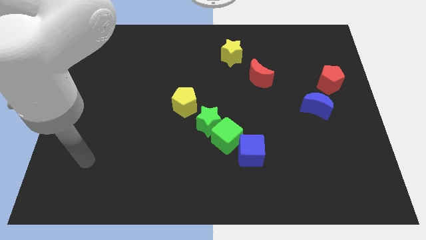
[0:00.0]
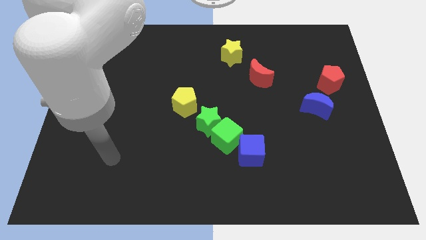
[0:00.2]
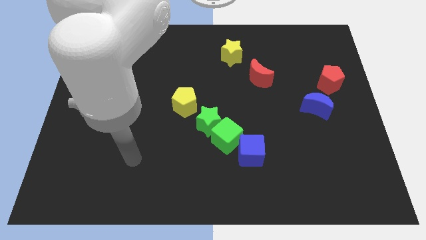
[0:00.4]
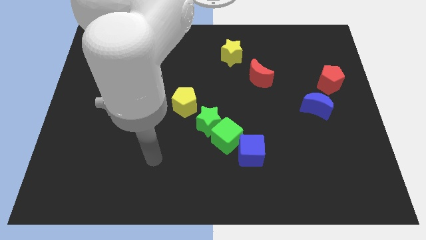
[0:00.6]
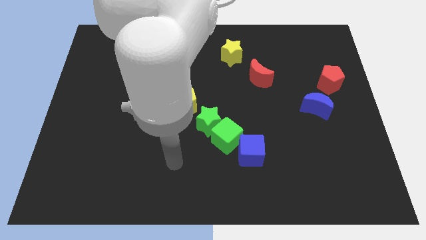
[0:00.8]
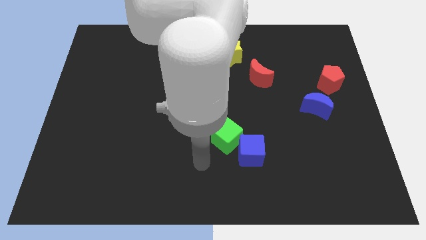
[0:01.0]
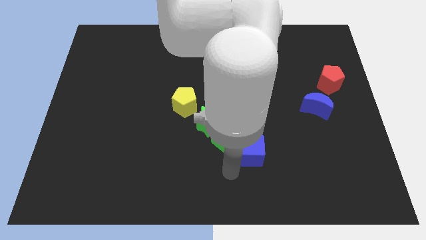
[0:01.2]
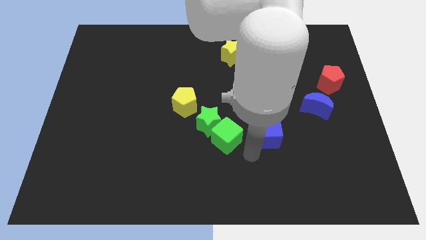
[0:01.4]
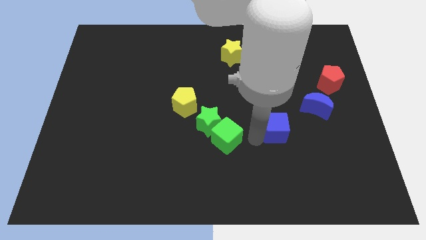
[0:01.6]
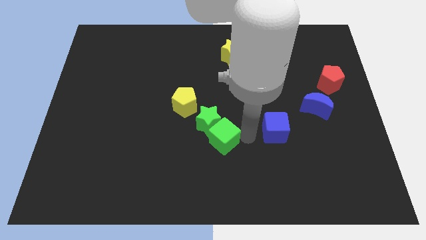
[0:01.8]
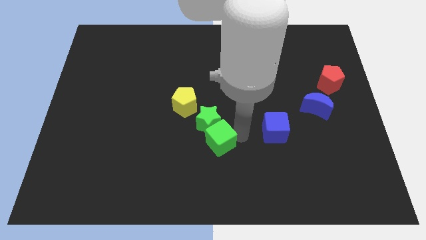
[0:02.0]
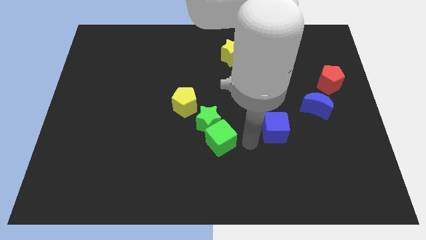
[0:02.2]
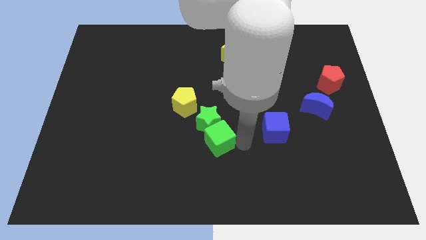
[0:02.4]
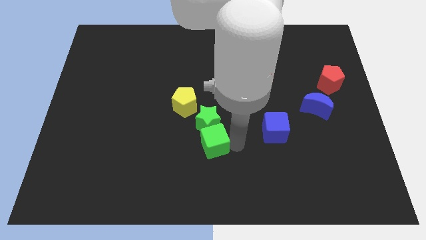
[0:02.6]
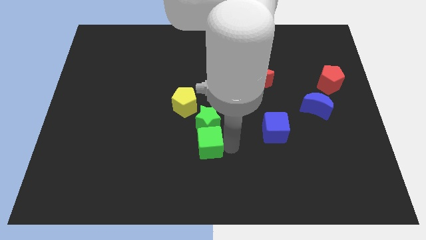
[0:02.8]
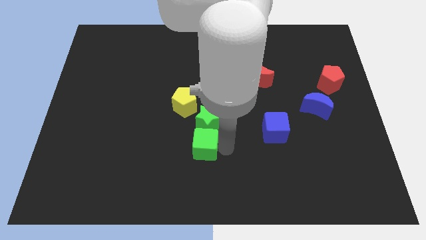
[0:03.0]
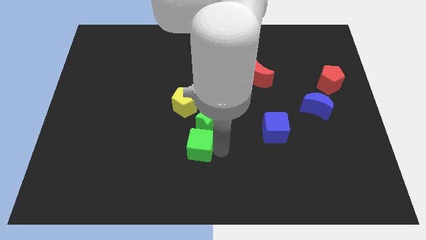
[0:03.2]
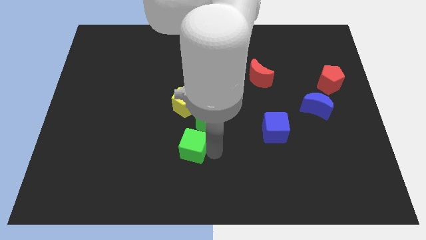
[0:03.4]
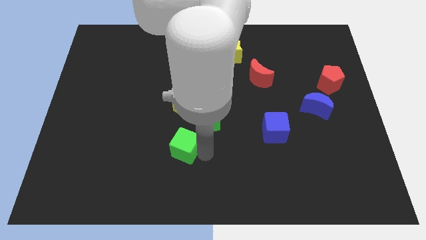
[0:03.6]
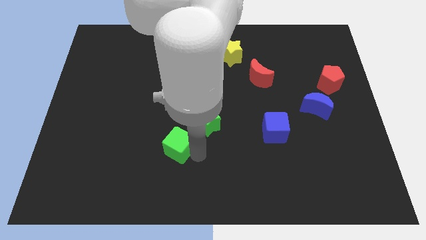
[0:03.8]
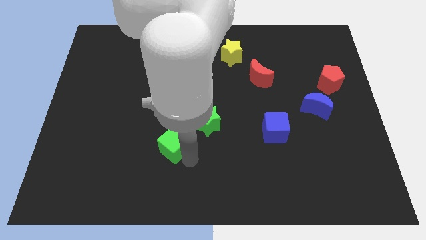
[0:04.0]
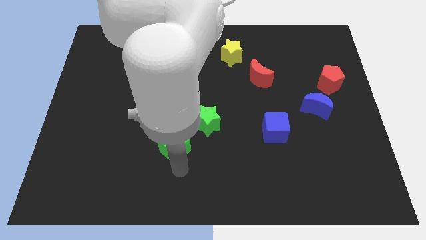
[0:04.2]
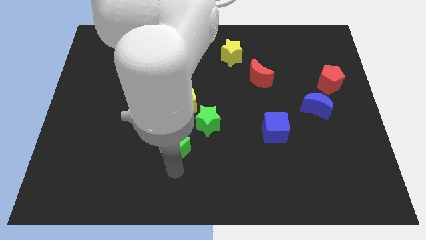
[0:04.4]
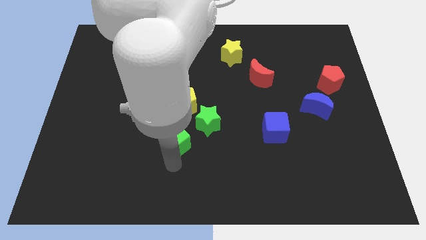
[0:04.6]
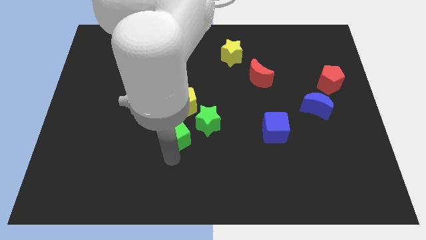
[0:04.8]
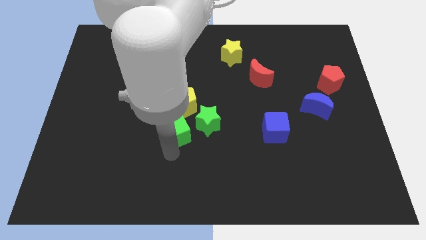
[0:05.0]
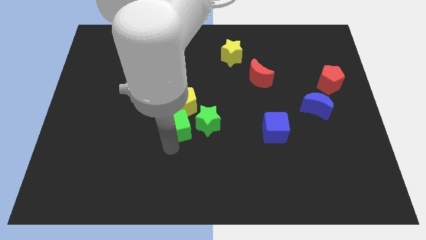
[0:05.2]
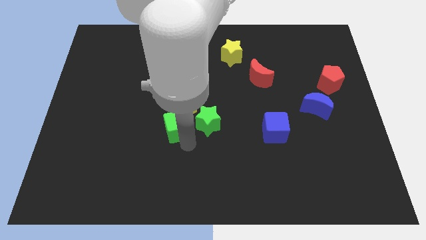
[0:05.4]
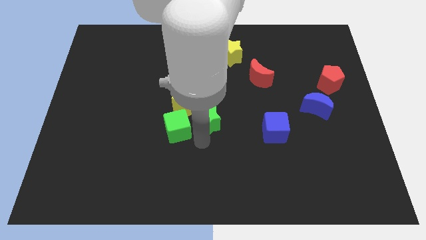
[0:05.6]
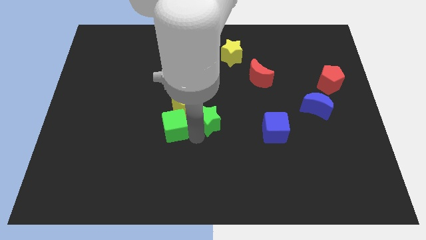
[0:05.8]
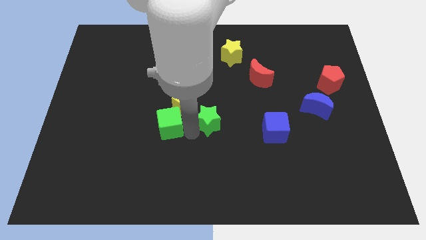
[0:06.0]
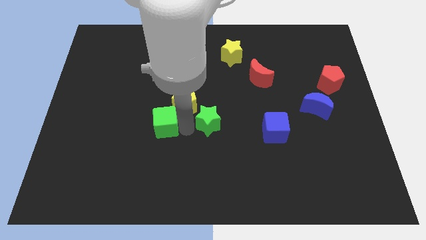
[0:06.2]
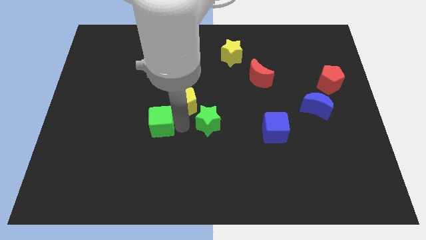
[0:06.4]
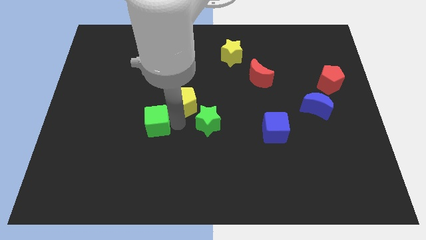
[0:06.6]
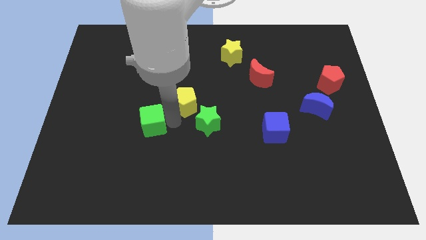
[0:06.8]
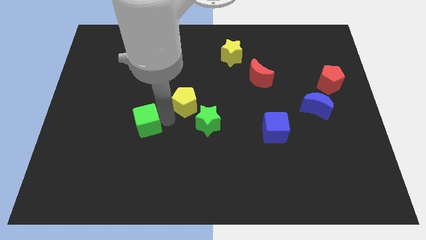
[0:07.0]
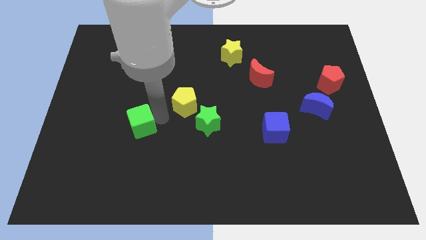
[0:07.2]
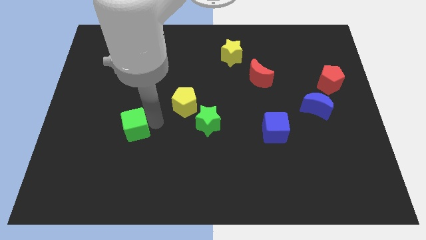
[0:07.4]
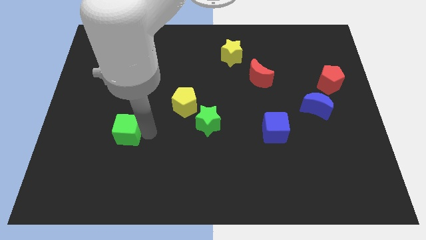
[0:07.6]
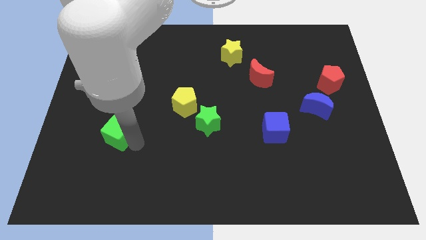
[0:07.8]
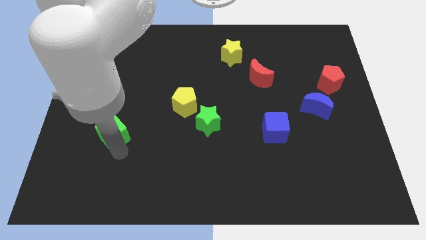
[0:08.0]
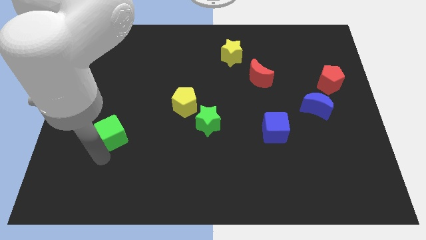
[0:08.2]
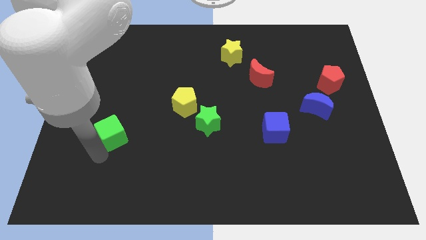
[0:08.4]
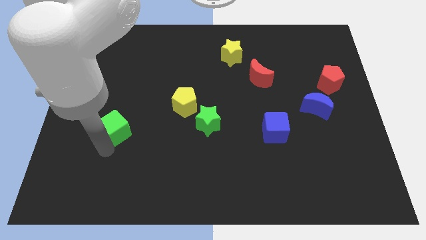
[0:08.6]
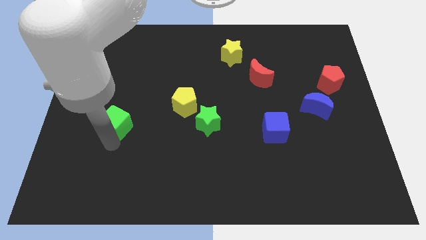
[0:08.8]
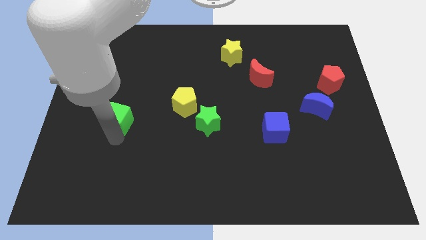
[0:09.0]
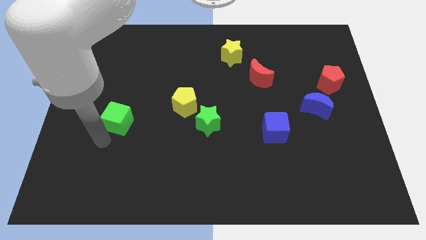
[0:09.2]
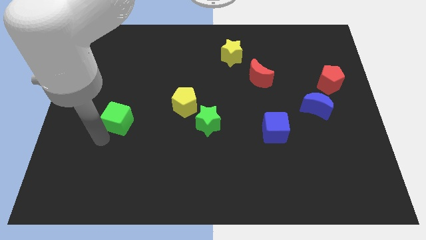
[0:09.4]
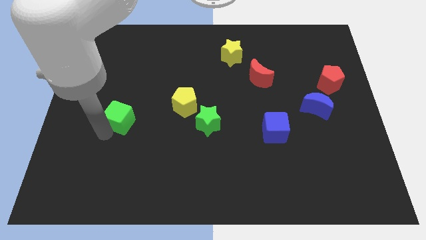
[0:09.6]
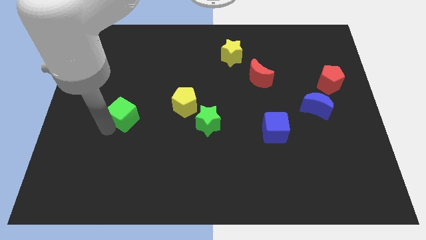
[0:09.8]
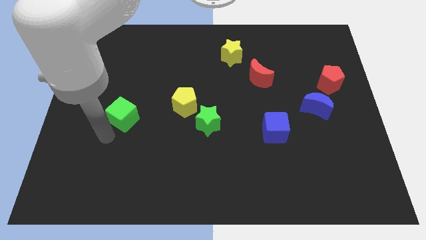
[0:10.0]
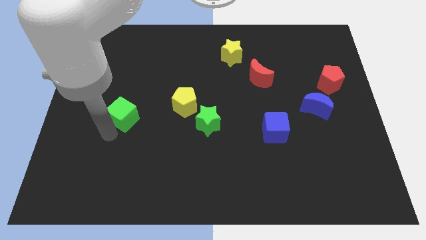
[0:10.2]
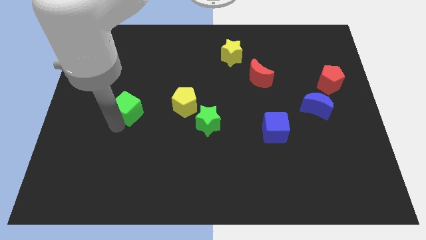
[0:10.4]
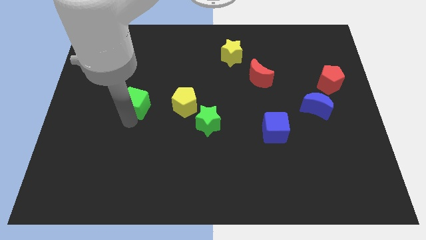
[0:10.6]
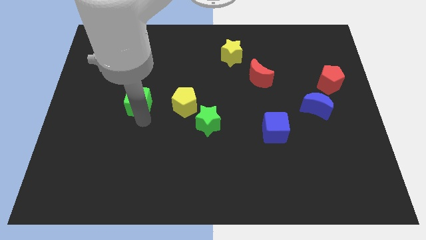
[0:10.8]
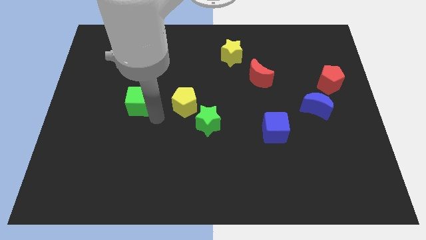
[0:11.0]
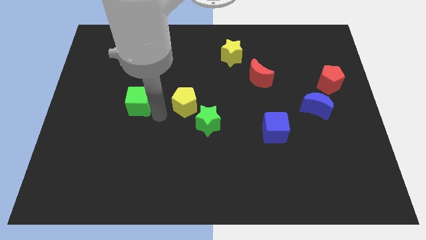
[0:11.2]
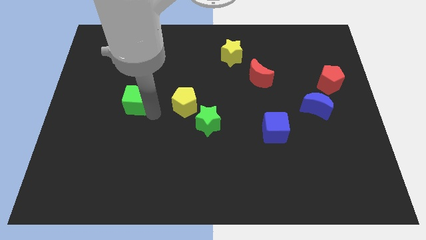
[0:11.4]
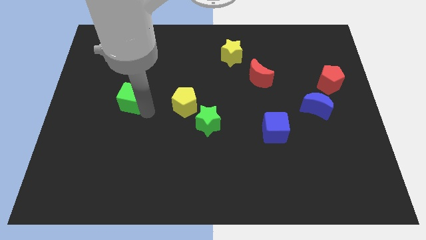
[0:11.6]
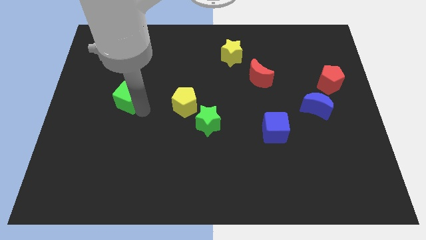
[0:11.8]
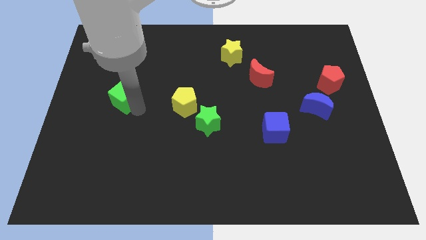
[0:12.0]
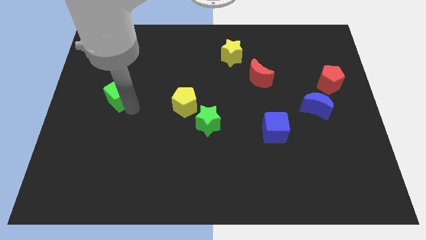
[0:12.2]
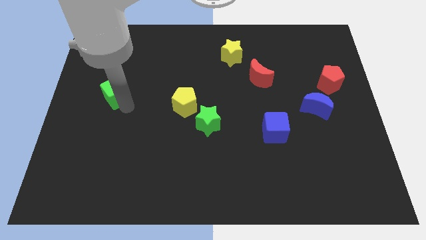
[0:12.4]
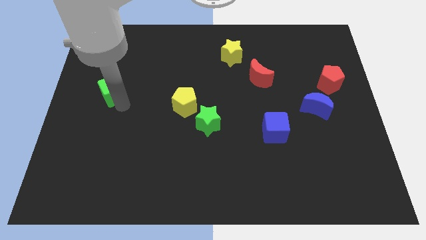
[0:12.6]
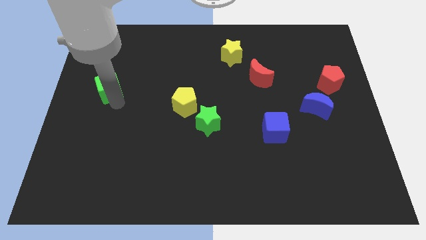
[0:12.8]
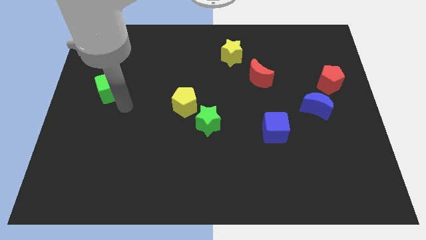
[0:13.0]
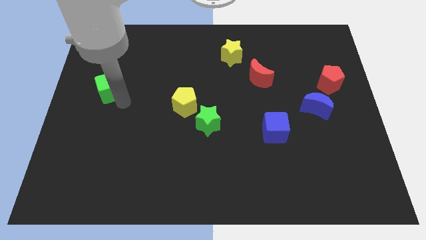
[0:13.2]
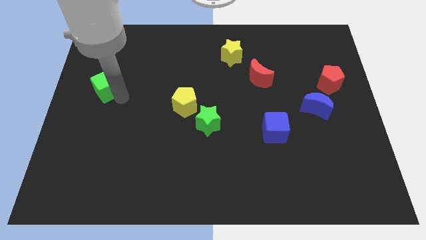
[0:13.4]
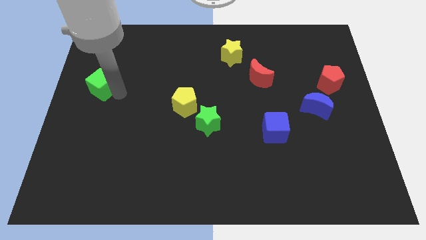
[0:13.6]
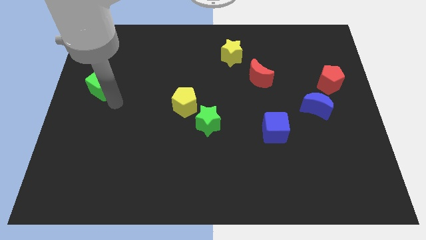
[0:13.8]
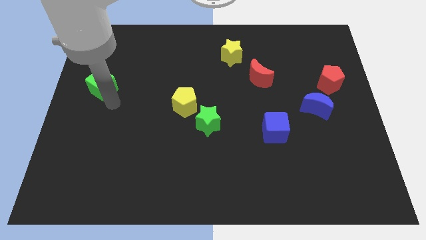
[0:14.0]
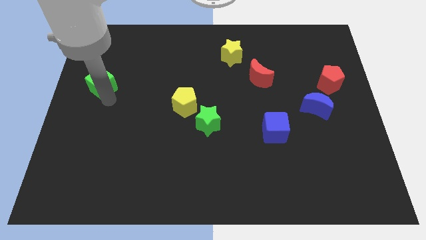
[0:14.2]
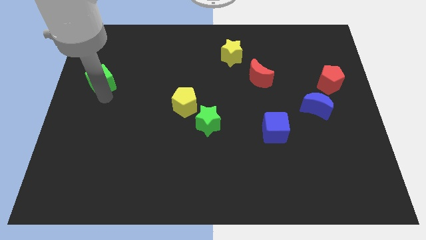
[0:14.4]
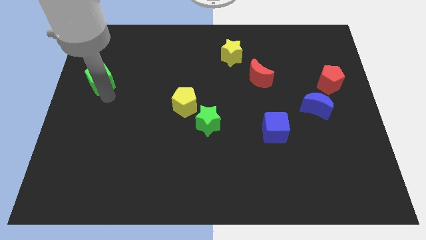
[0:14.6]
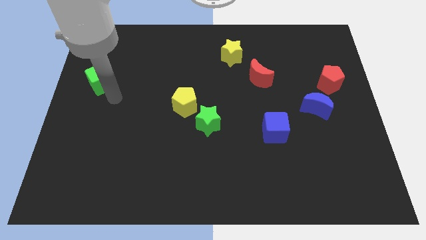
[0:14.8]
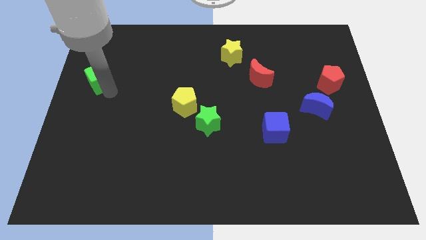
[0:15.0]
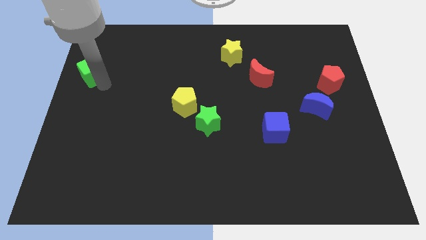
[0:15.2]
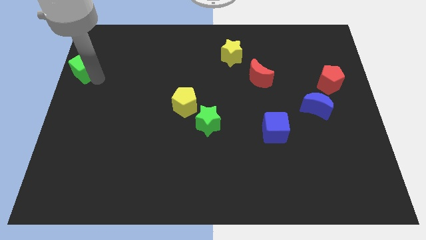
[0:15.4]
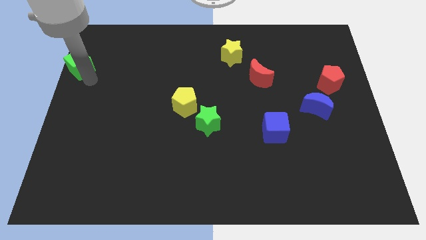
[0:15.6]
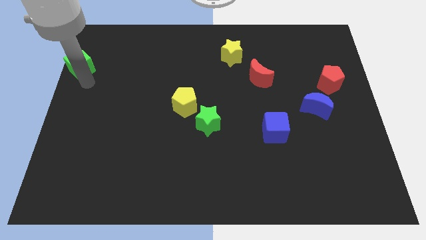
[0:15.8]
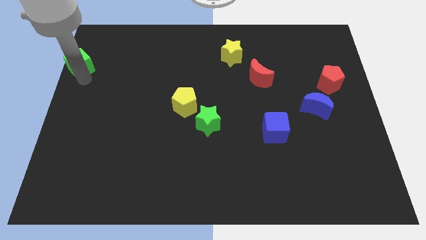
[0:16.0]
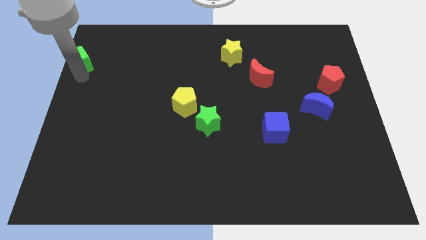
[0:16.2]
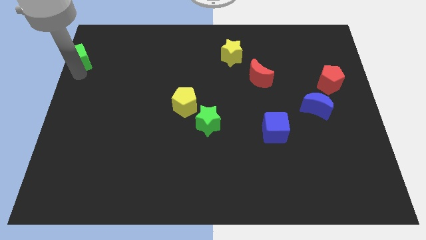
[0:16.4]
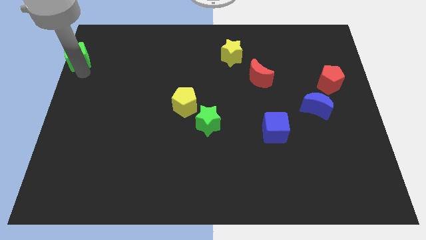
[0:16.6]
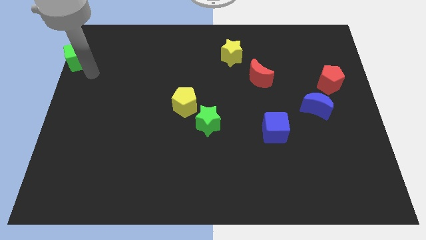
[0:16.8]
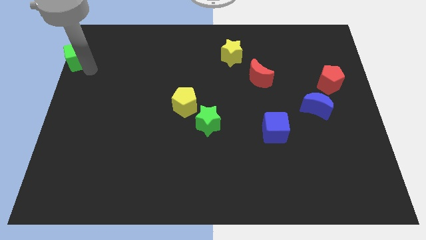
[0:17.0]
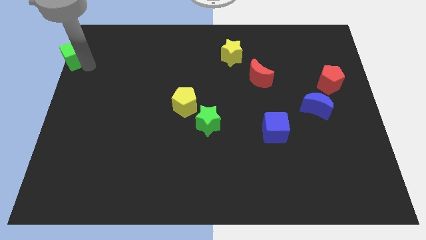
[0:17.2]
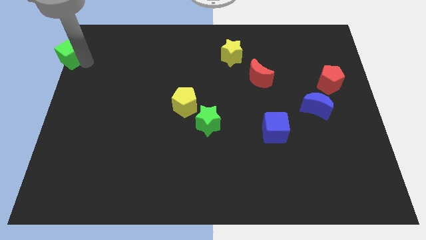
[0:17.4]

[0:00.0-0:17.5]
push the green cube to the top left corner
